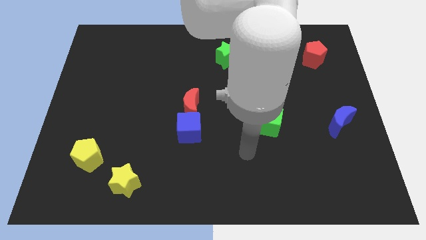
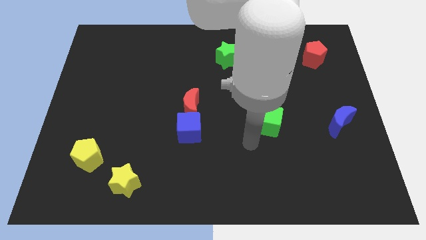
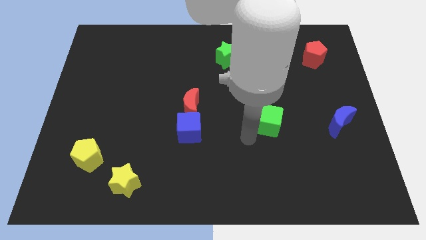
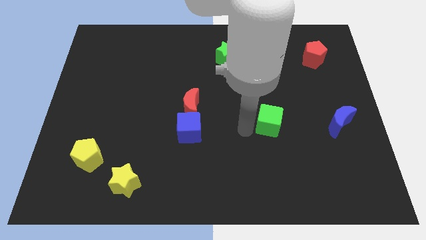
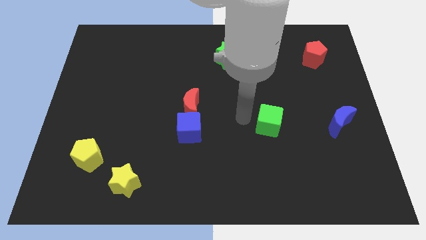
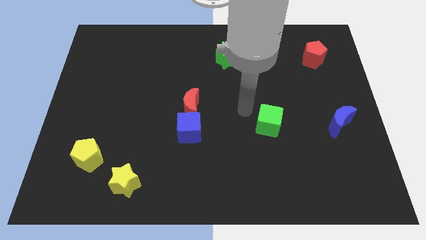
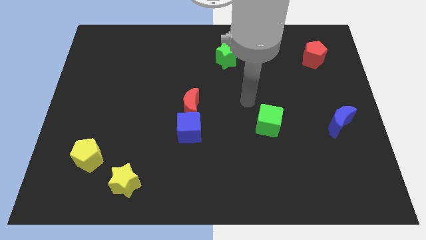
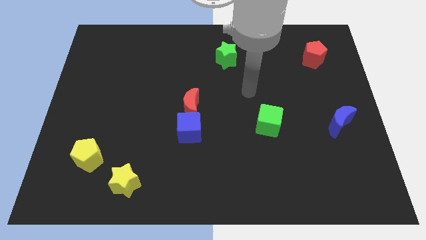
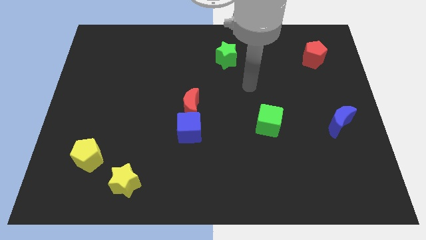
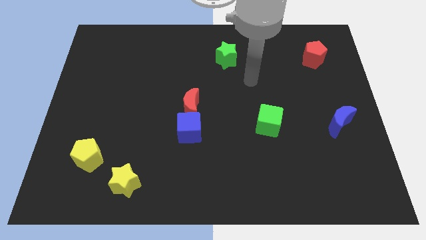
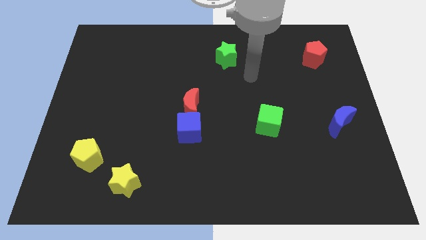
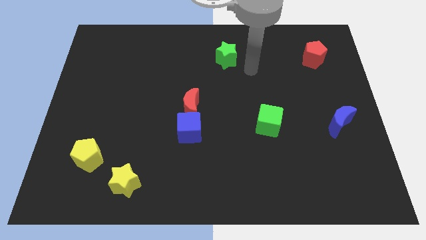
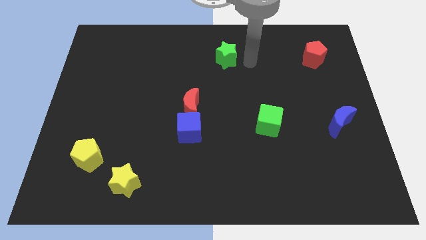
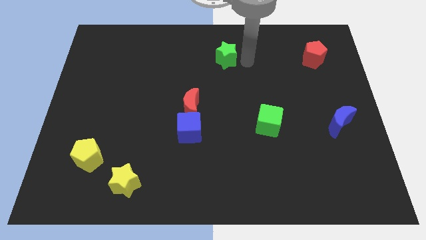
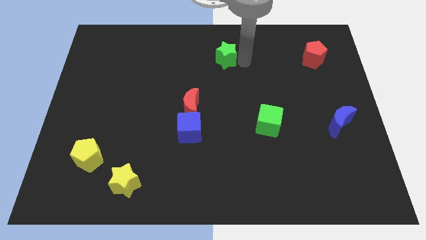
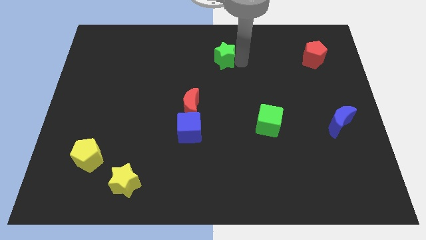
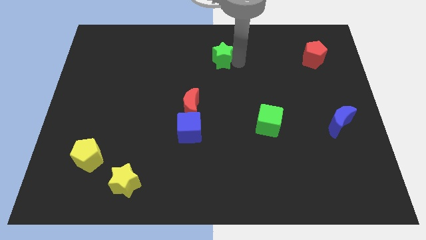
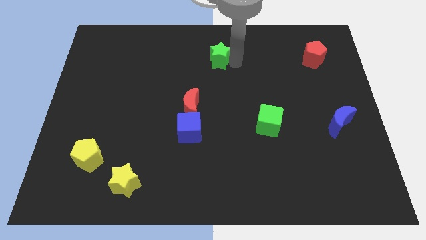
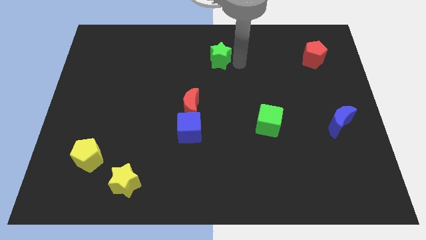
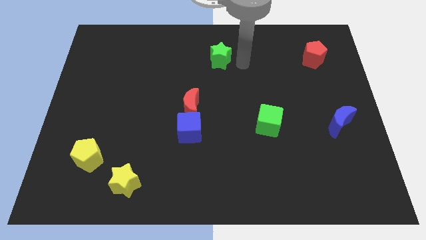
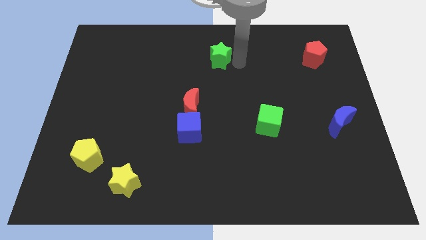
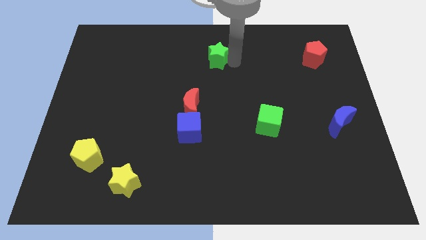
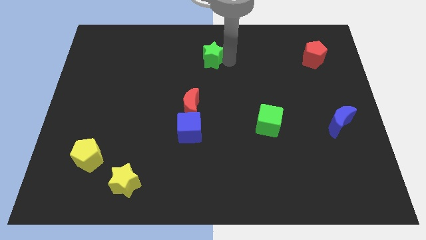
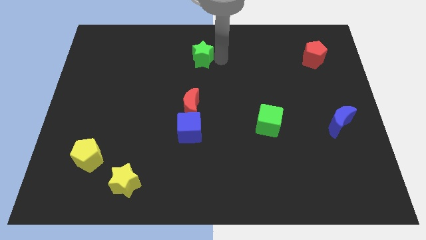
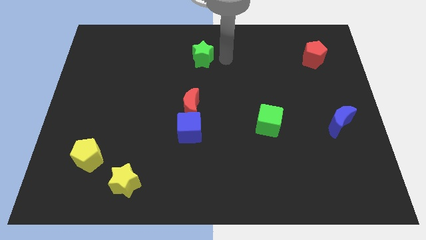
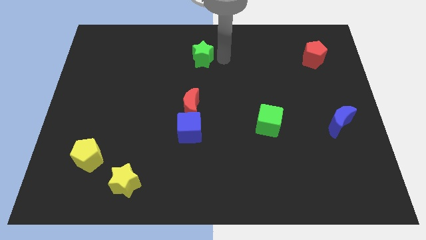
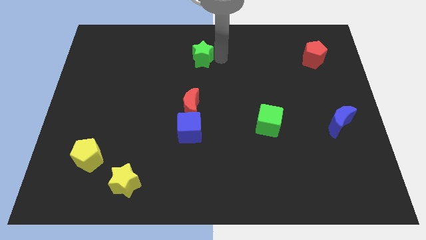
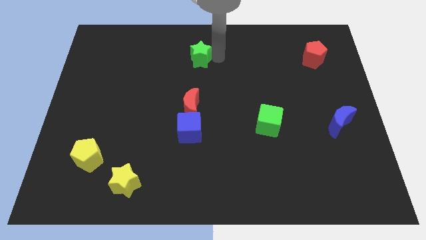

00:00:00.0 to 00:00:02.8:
move the green star slightly left

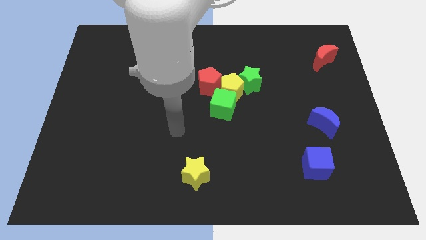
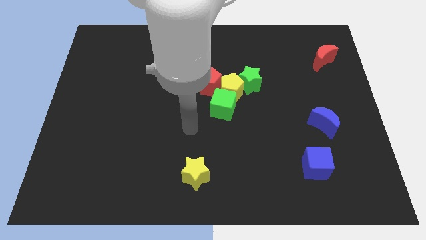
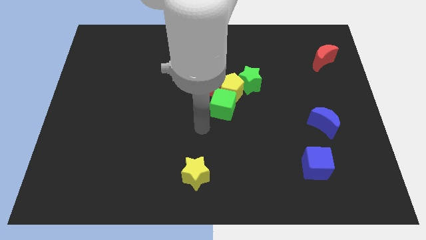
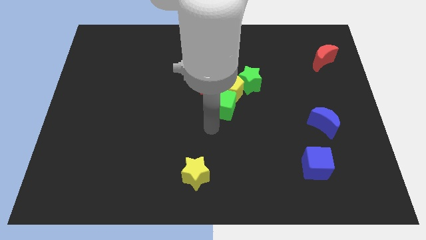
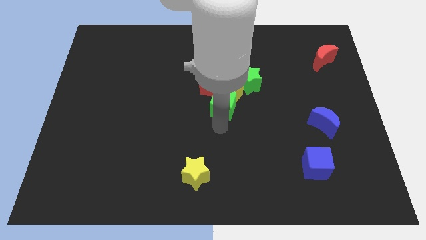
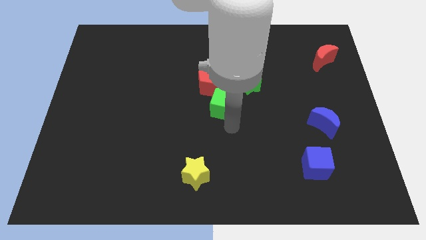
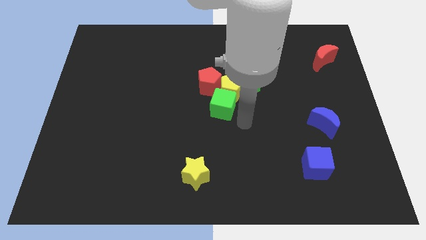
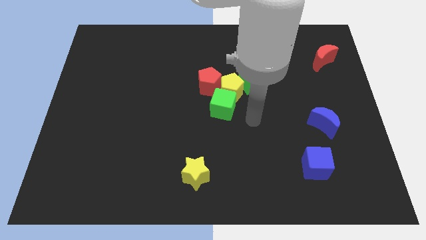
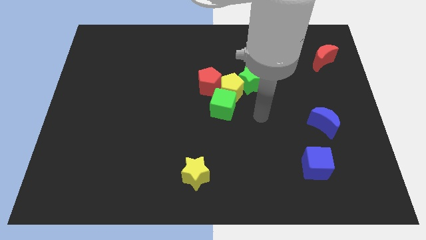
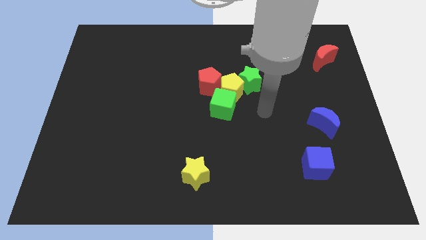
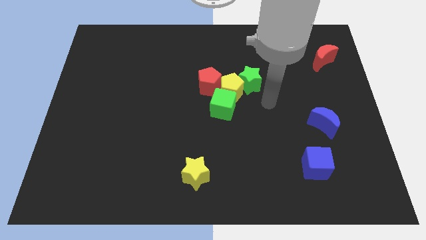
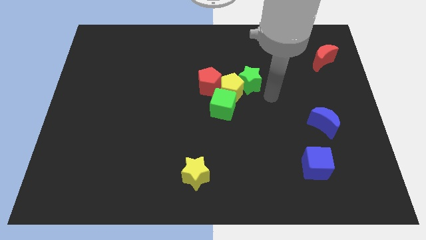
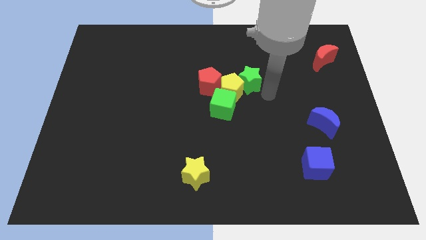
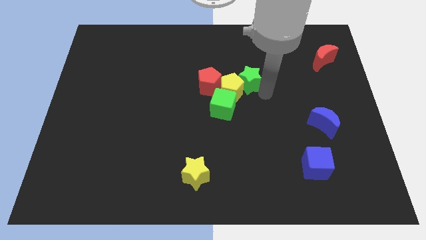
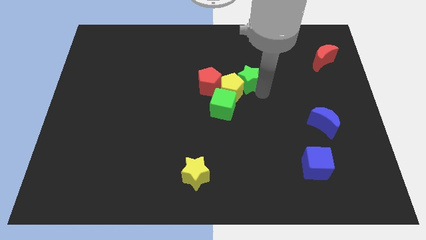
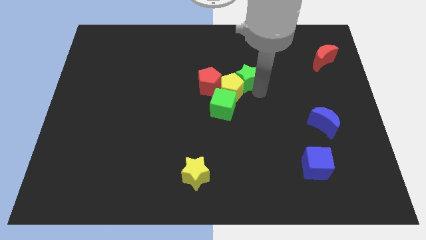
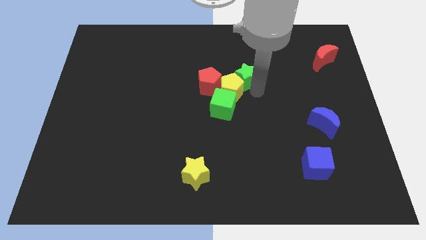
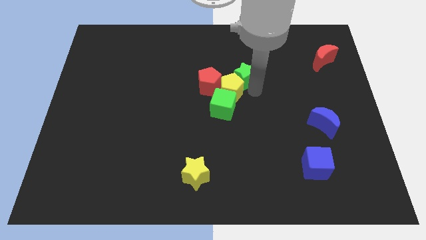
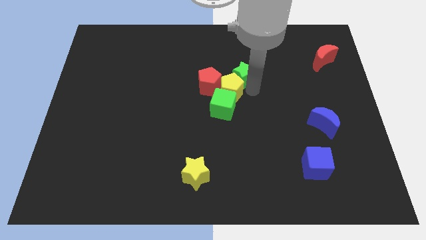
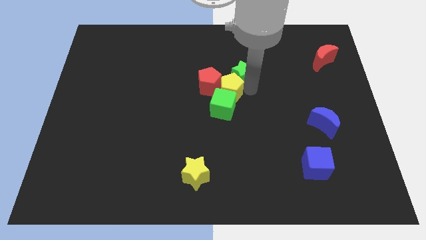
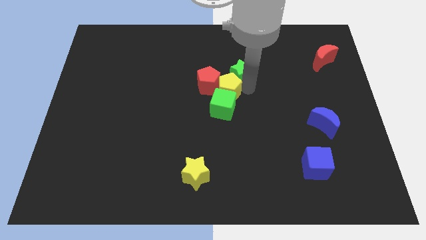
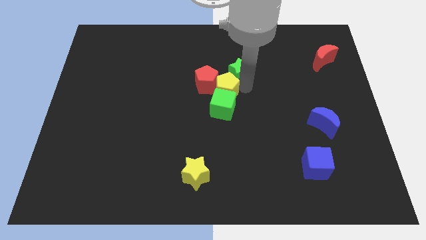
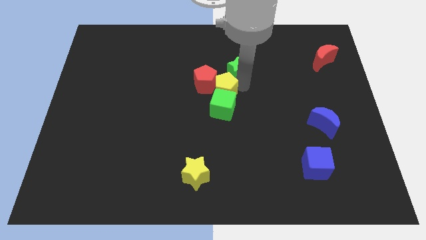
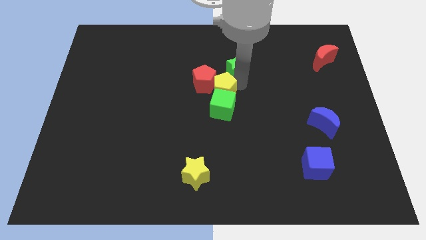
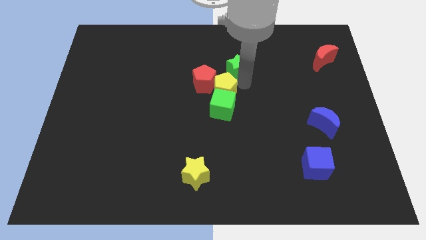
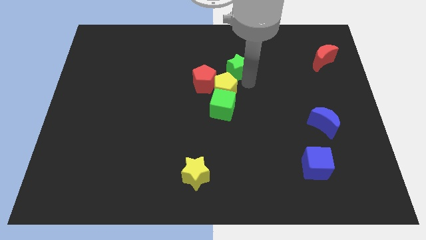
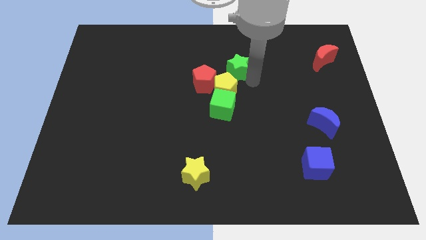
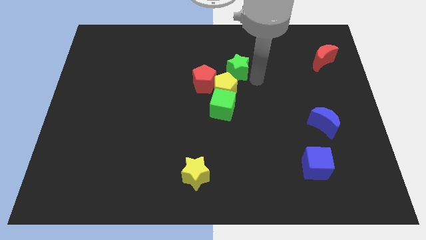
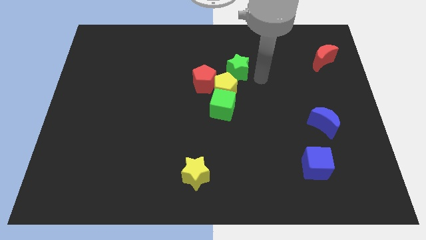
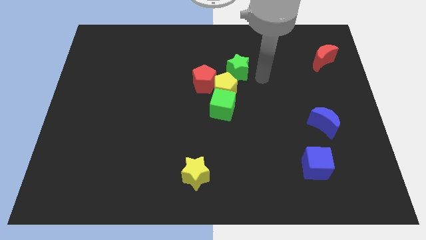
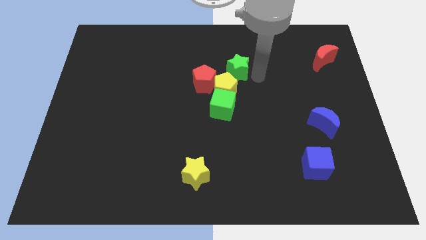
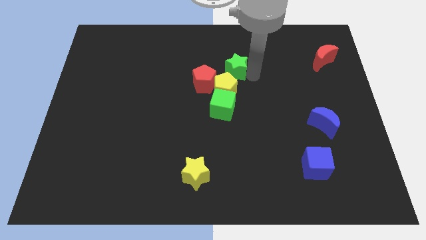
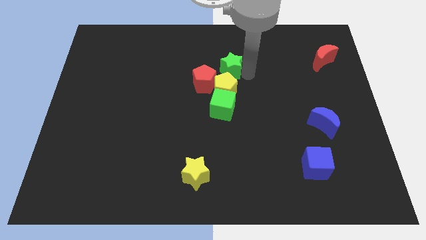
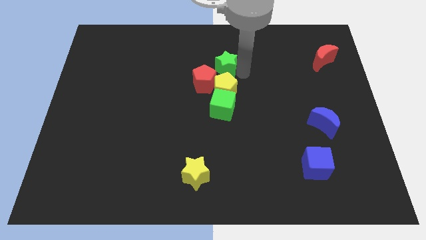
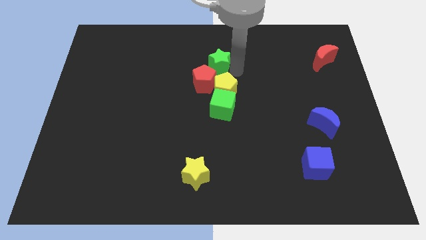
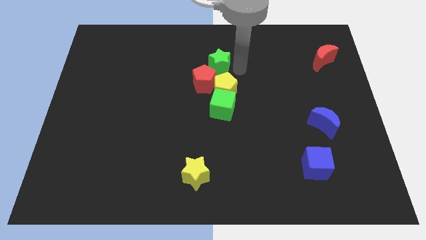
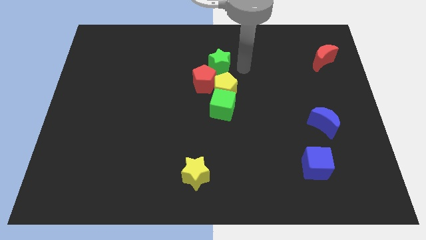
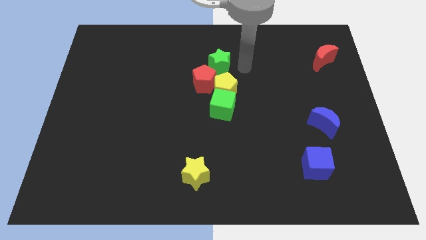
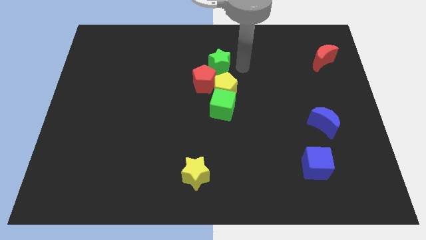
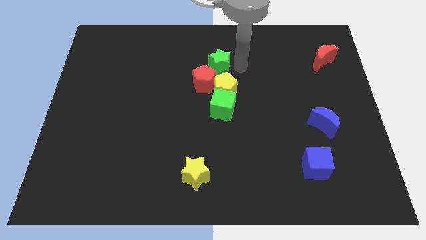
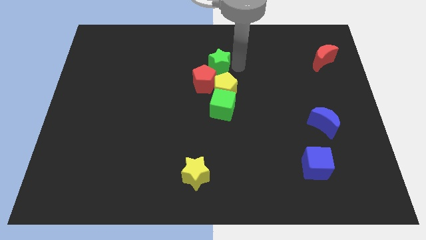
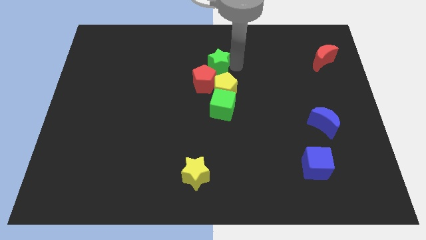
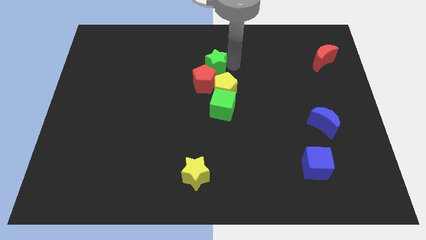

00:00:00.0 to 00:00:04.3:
move the green star to the left somewhat

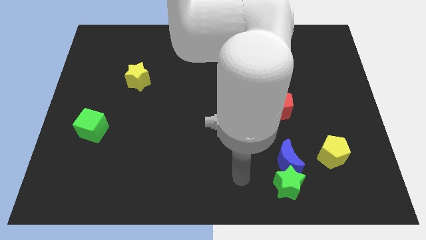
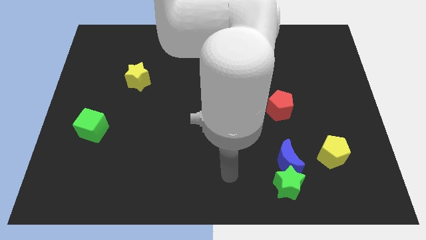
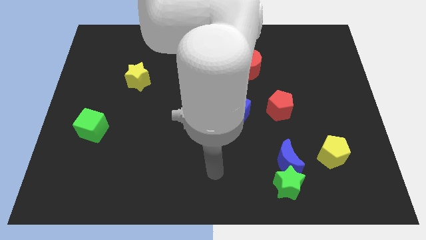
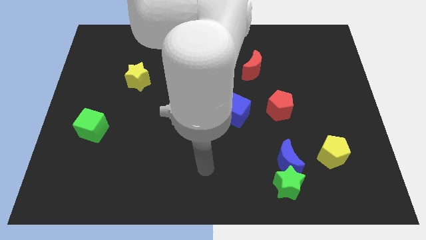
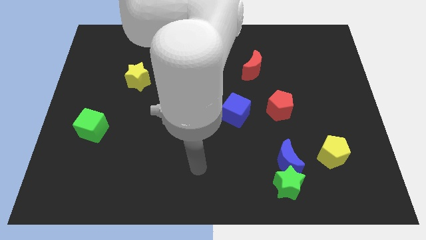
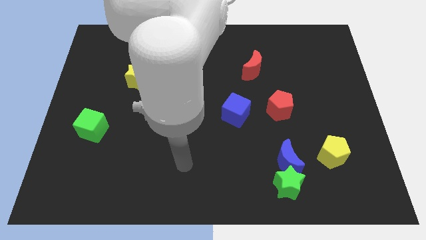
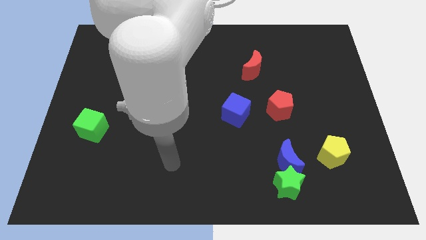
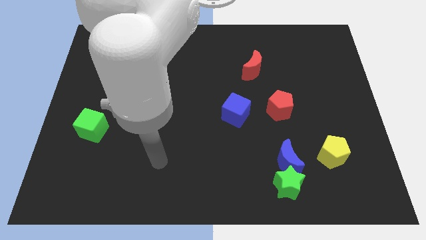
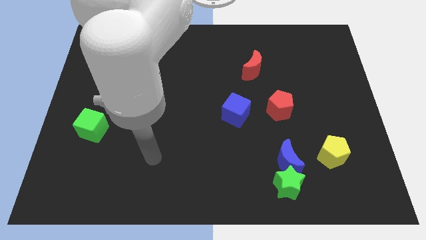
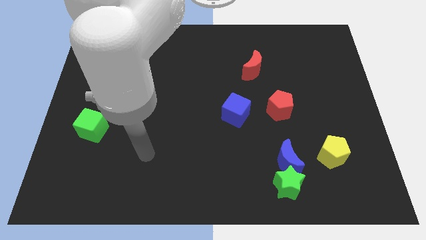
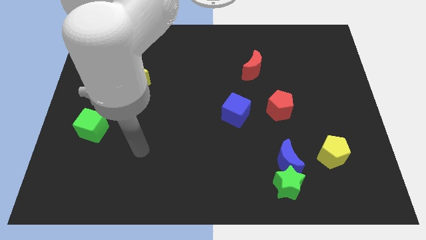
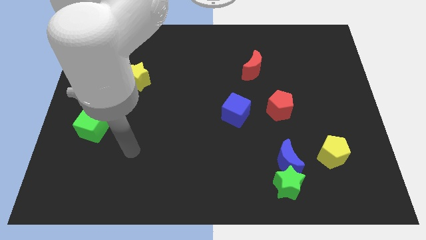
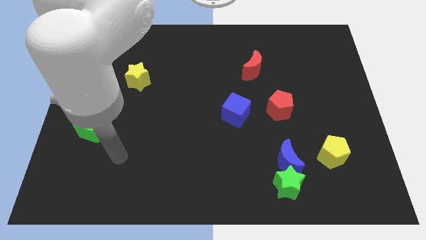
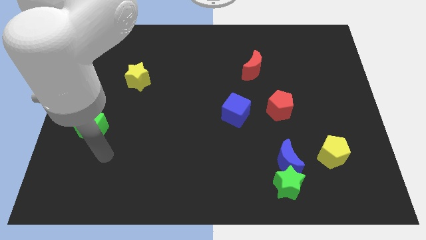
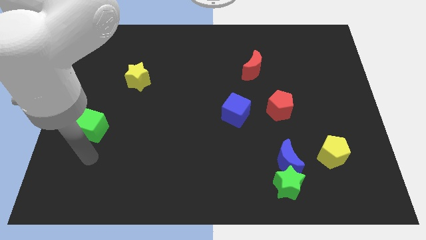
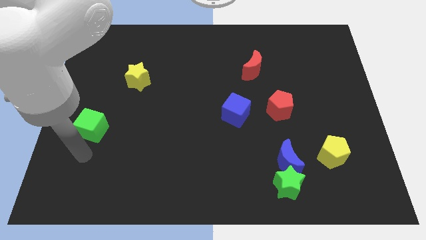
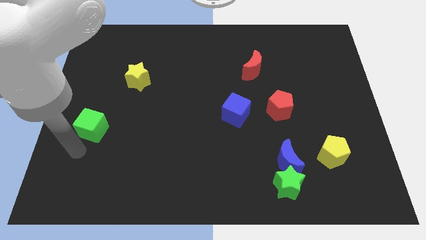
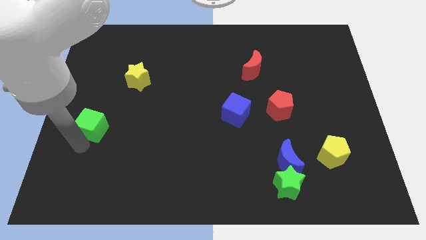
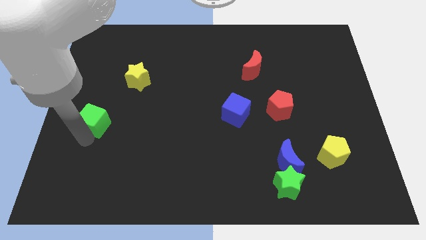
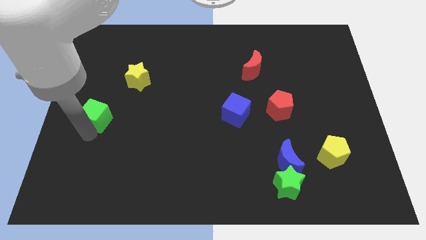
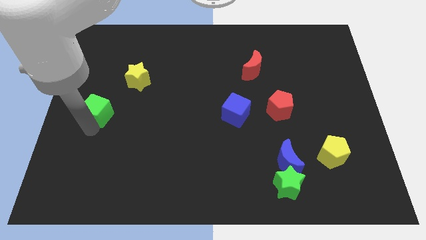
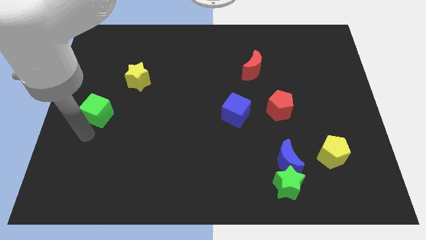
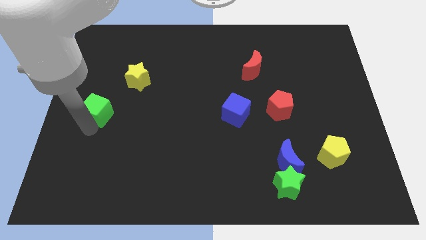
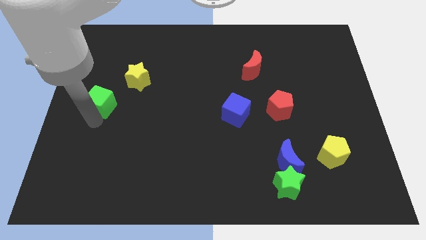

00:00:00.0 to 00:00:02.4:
slightly push the green cube upwards
